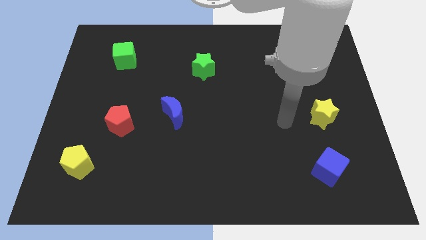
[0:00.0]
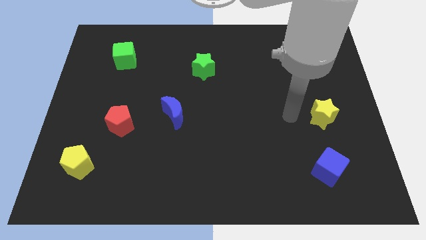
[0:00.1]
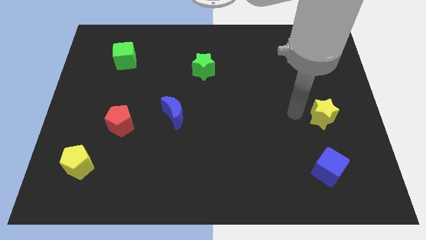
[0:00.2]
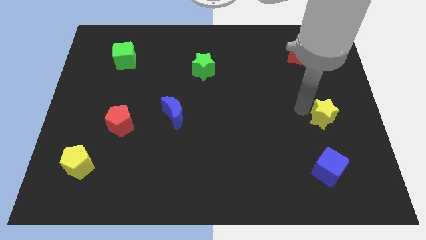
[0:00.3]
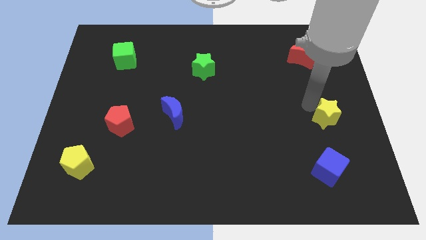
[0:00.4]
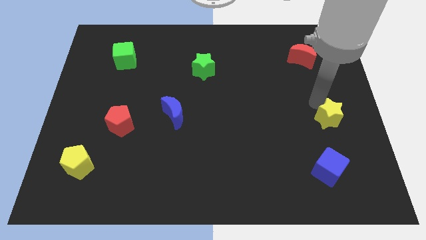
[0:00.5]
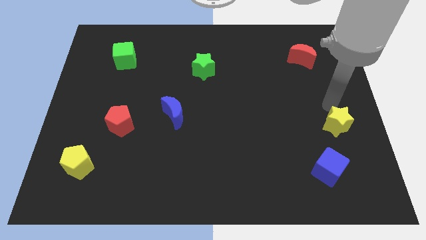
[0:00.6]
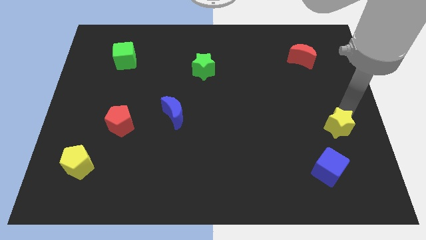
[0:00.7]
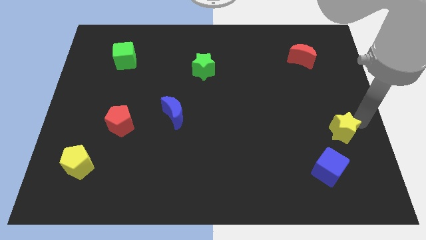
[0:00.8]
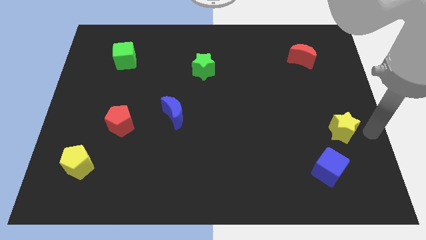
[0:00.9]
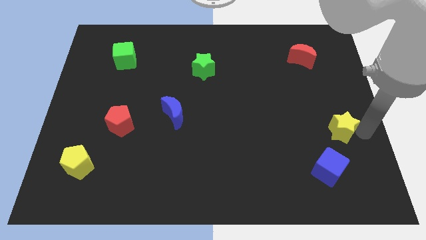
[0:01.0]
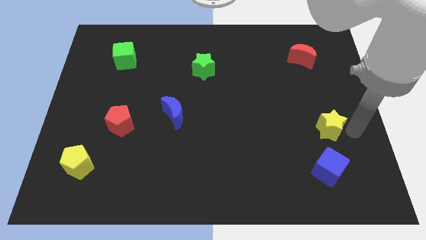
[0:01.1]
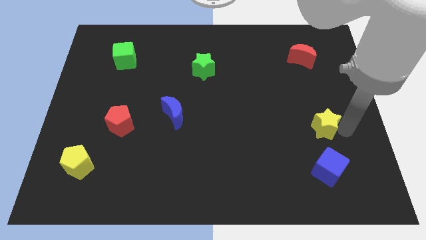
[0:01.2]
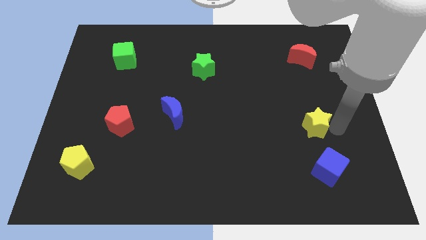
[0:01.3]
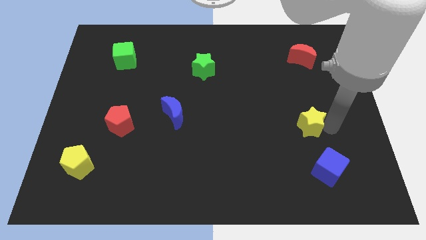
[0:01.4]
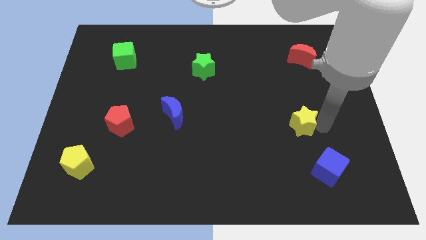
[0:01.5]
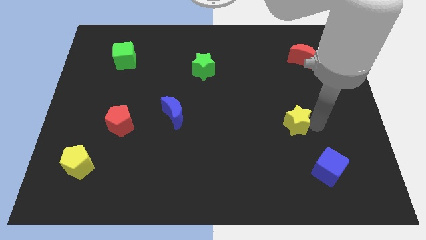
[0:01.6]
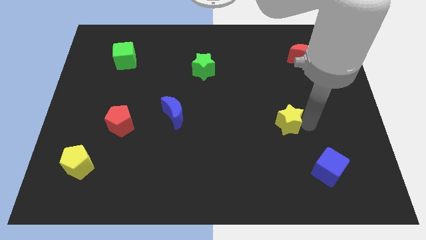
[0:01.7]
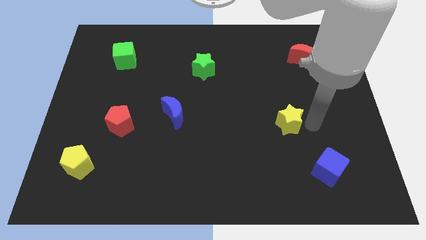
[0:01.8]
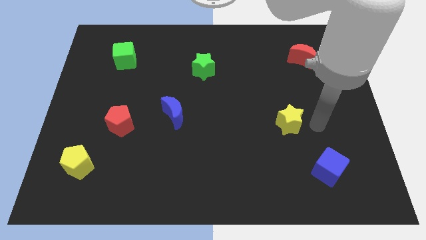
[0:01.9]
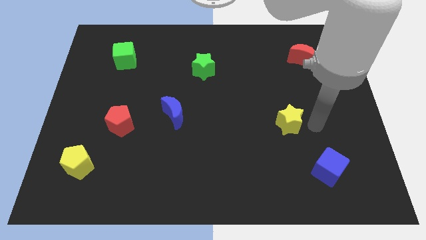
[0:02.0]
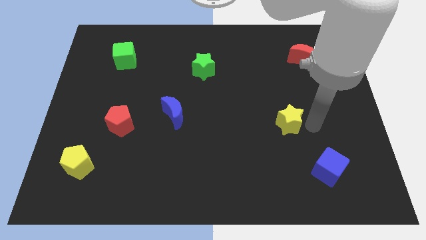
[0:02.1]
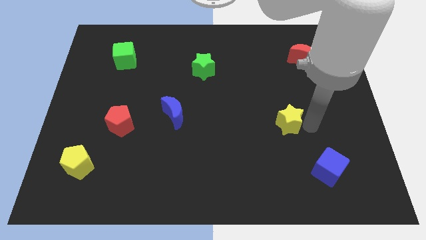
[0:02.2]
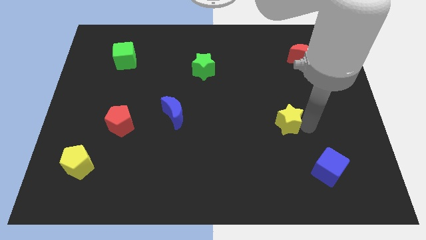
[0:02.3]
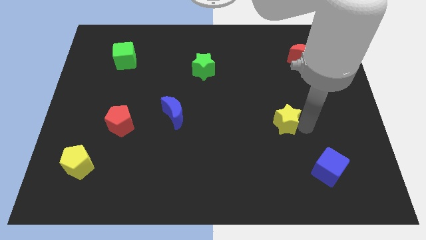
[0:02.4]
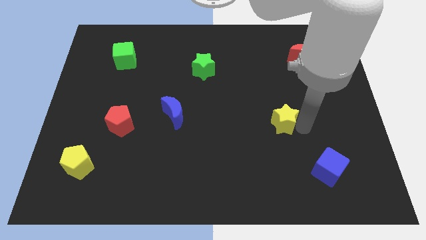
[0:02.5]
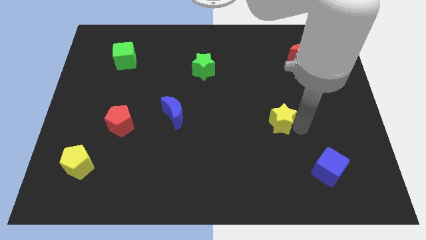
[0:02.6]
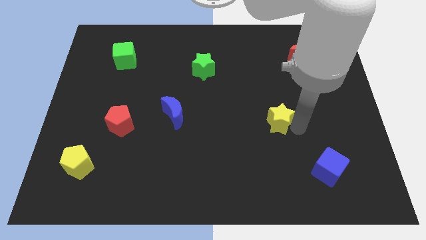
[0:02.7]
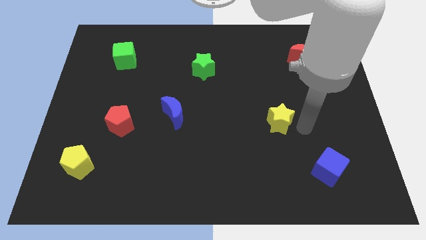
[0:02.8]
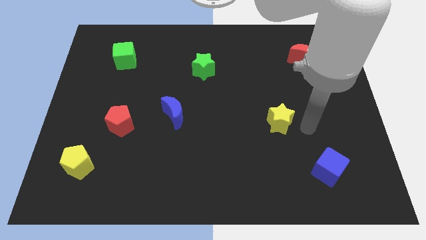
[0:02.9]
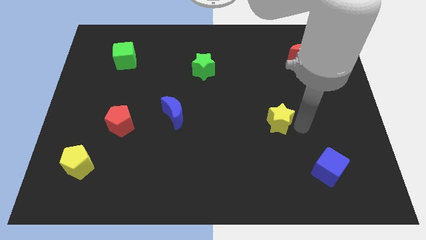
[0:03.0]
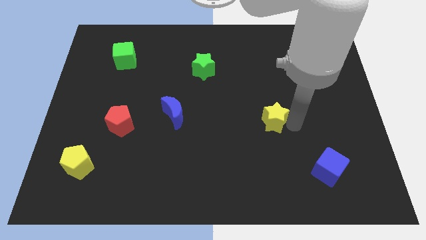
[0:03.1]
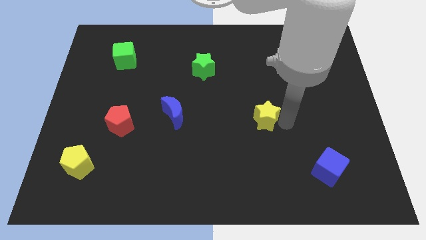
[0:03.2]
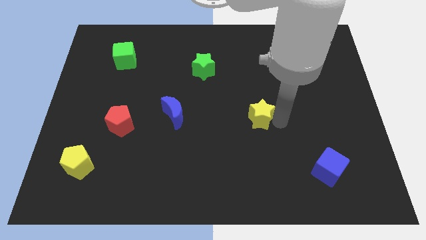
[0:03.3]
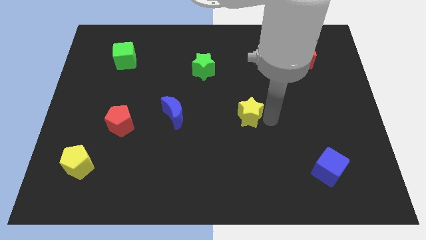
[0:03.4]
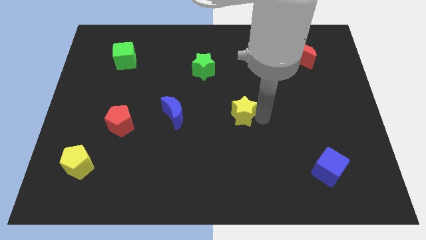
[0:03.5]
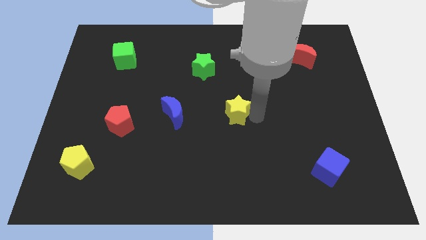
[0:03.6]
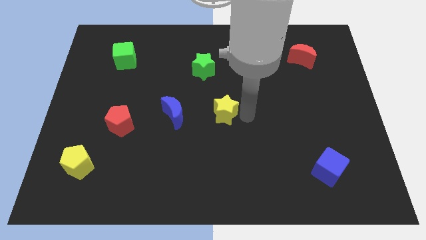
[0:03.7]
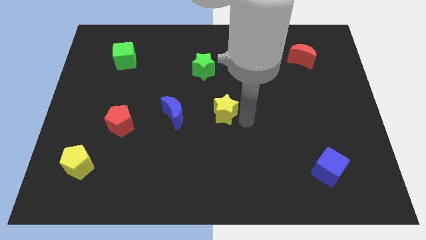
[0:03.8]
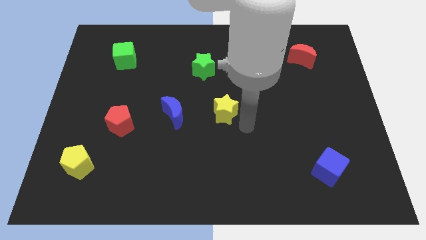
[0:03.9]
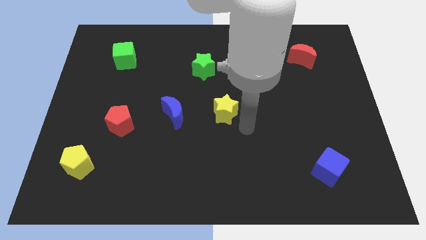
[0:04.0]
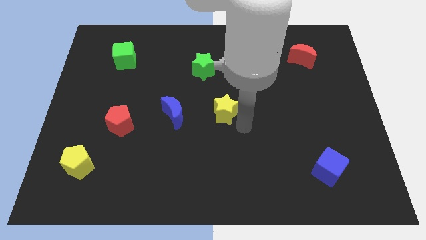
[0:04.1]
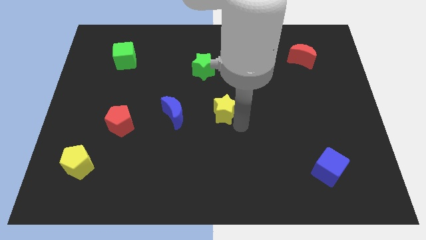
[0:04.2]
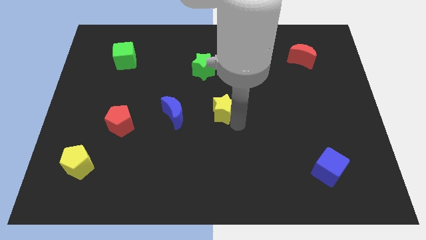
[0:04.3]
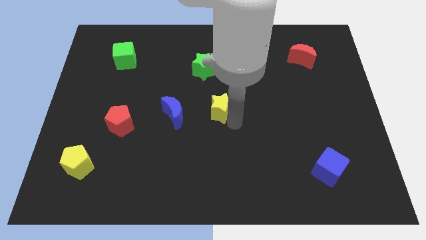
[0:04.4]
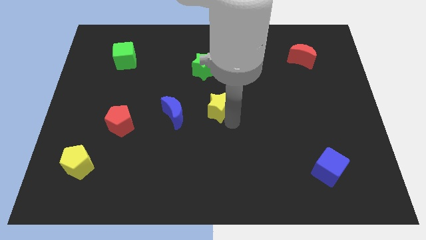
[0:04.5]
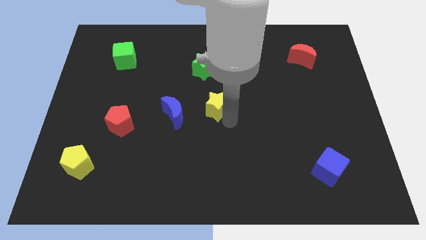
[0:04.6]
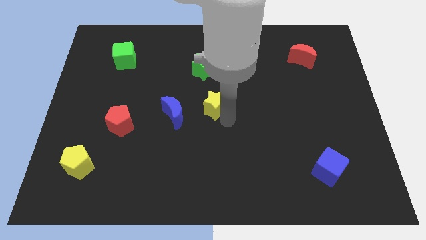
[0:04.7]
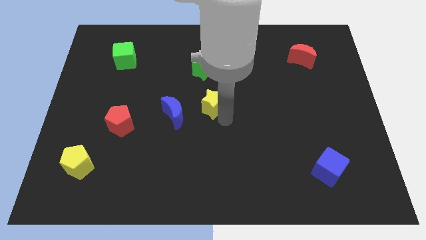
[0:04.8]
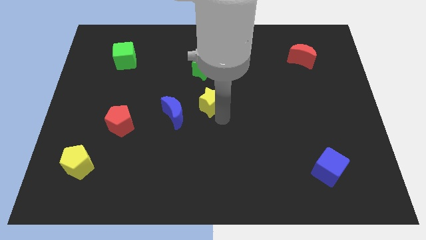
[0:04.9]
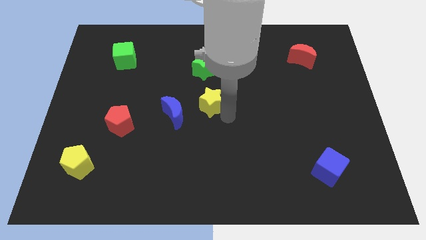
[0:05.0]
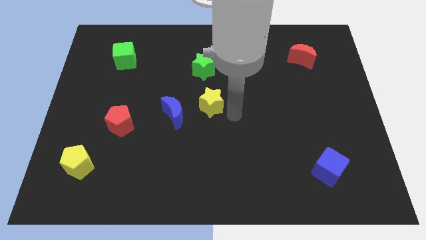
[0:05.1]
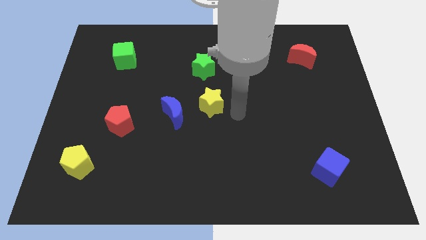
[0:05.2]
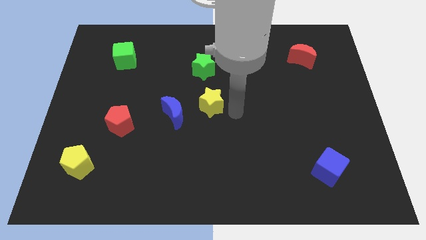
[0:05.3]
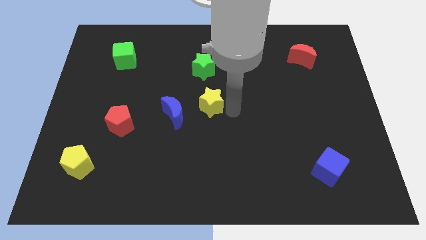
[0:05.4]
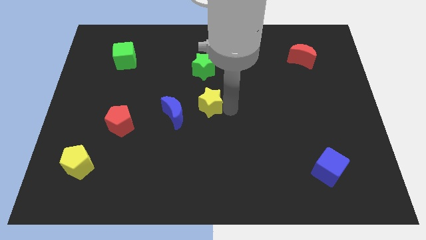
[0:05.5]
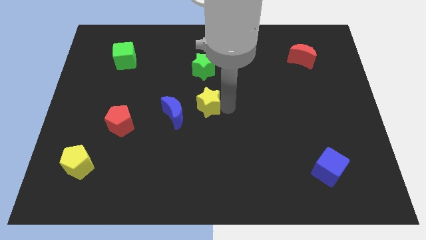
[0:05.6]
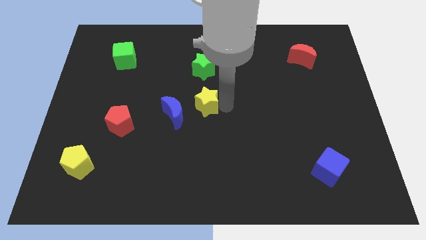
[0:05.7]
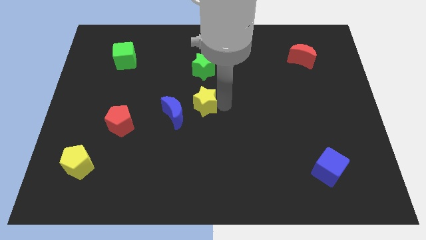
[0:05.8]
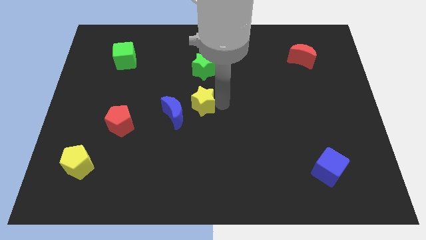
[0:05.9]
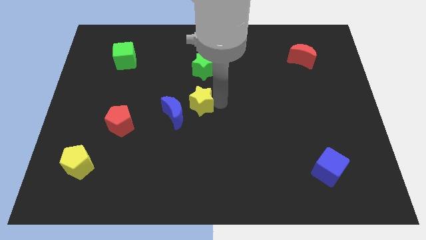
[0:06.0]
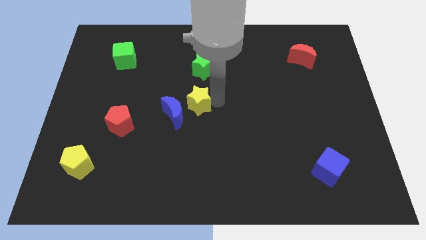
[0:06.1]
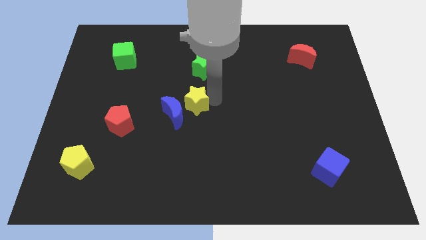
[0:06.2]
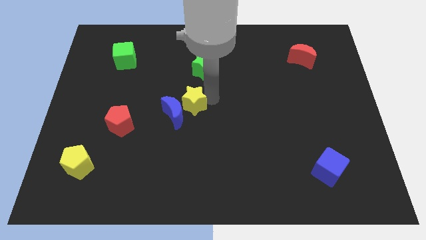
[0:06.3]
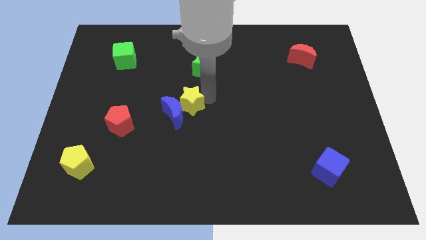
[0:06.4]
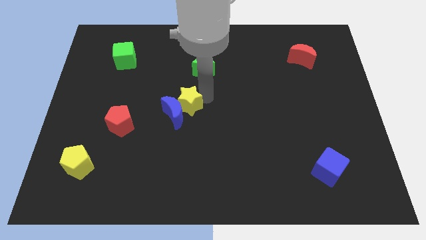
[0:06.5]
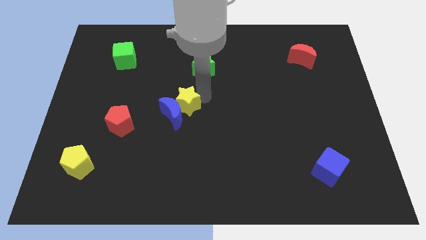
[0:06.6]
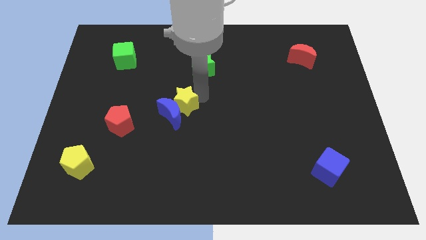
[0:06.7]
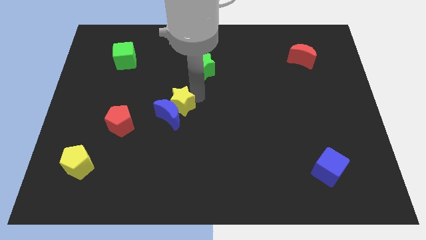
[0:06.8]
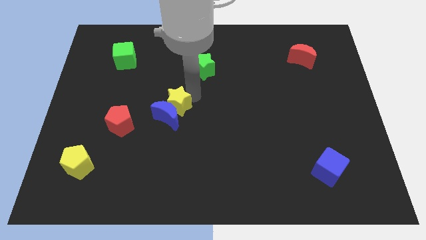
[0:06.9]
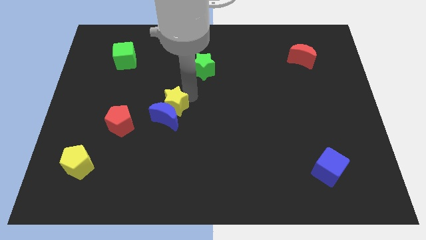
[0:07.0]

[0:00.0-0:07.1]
move the yellow star diagonally up and to the left of the blue moon
